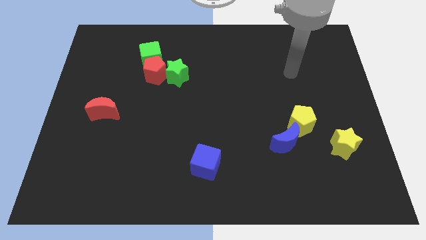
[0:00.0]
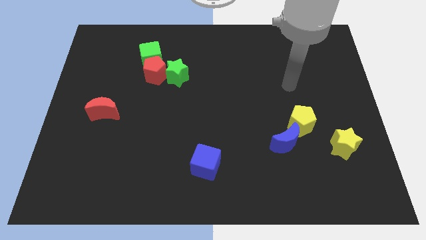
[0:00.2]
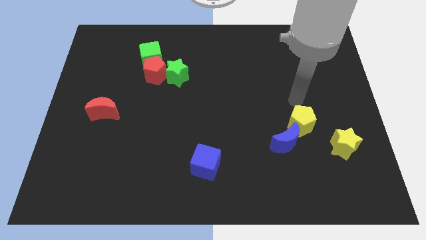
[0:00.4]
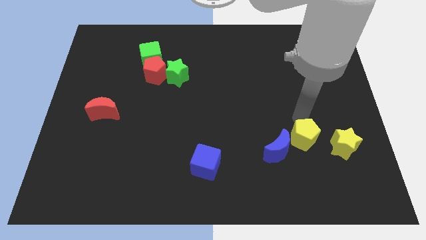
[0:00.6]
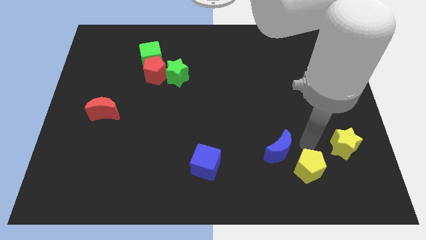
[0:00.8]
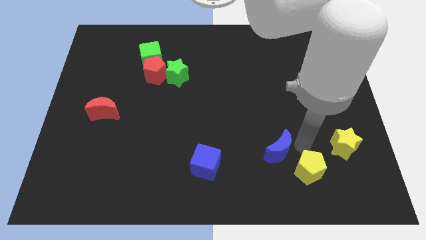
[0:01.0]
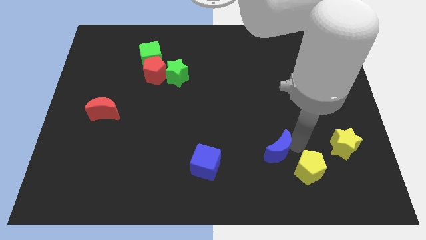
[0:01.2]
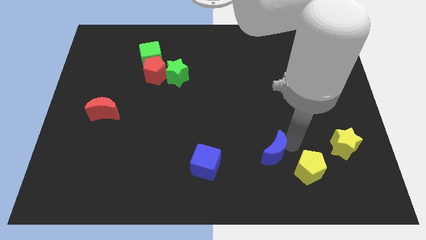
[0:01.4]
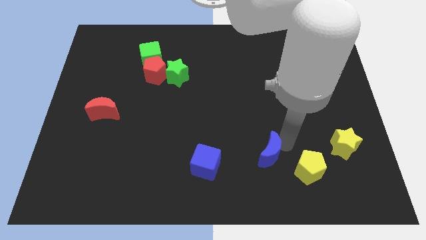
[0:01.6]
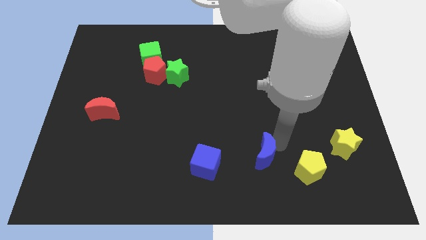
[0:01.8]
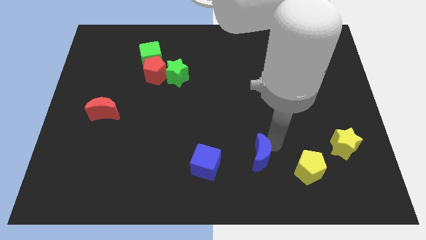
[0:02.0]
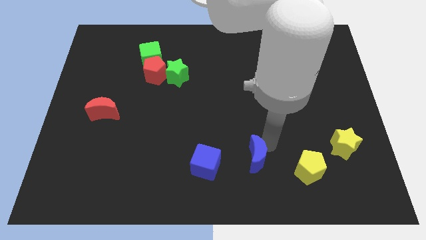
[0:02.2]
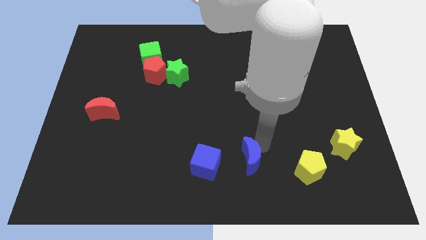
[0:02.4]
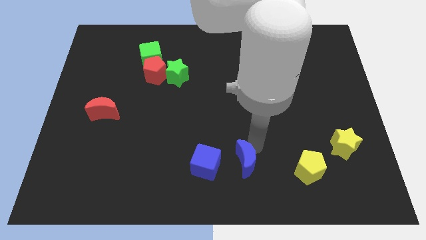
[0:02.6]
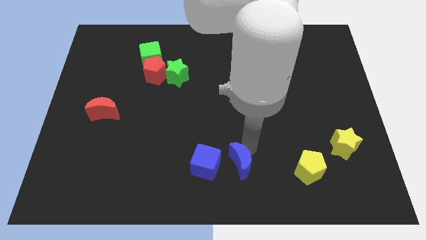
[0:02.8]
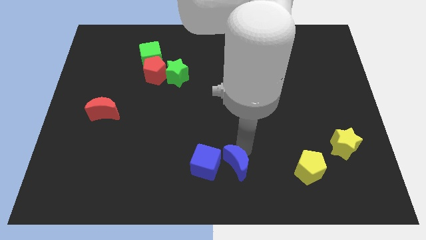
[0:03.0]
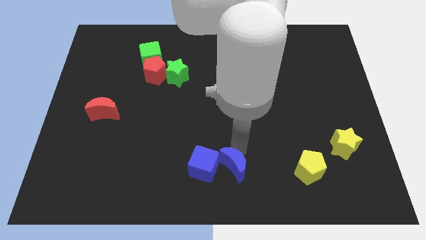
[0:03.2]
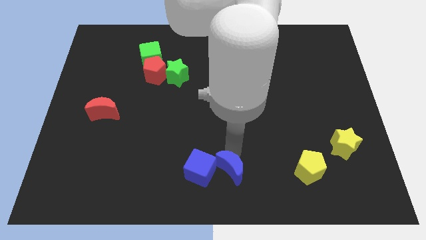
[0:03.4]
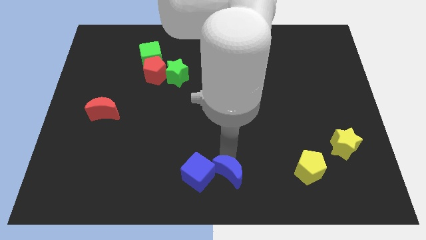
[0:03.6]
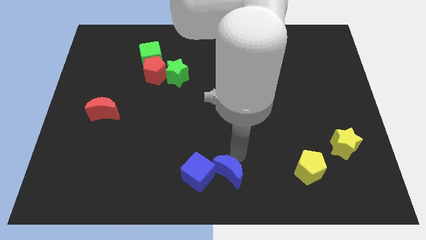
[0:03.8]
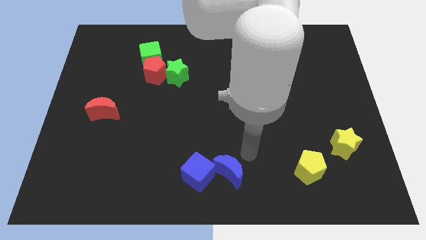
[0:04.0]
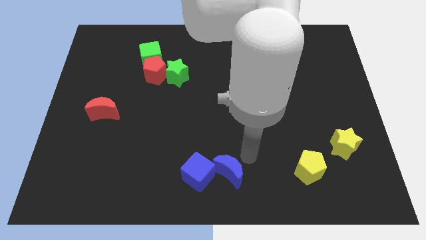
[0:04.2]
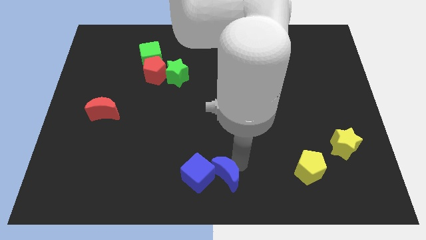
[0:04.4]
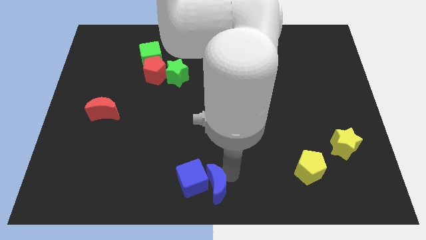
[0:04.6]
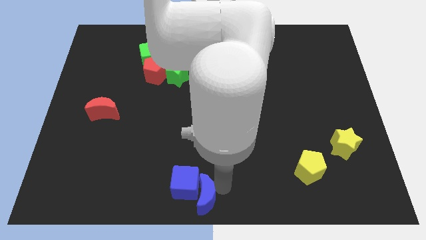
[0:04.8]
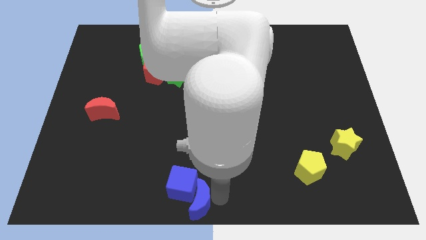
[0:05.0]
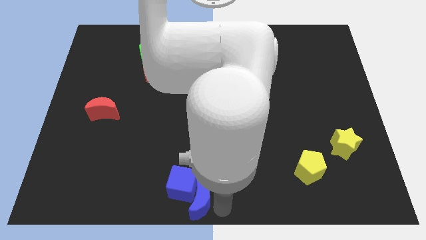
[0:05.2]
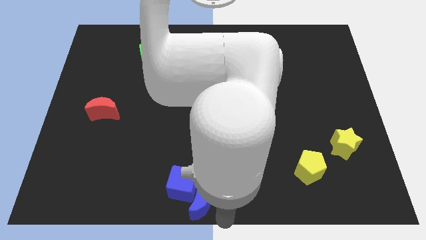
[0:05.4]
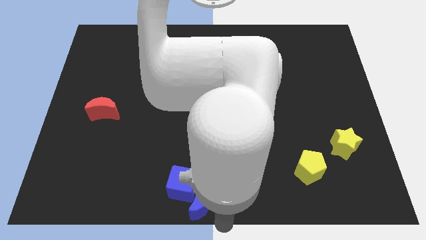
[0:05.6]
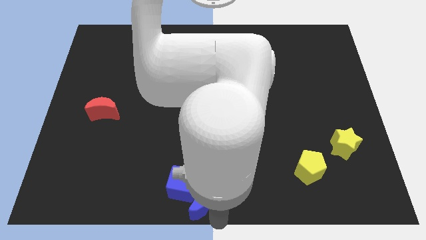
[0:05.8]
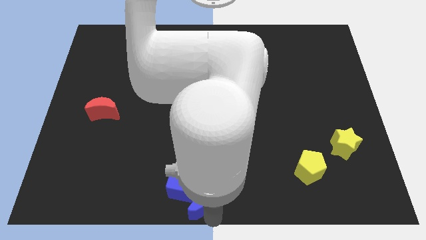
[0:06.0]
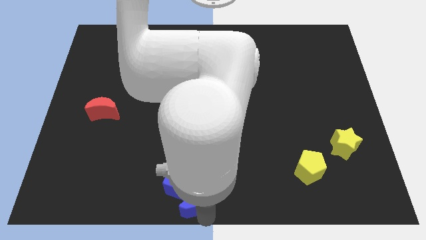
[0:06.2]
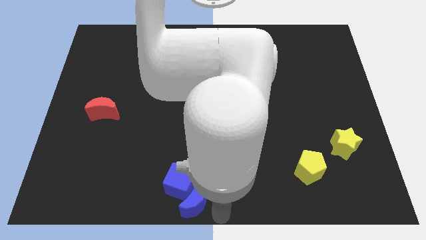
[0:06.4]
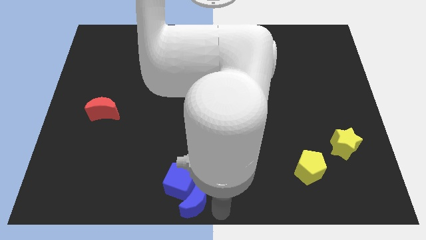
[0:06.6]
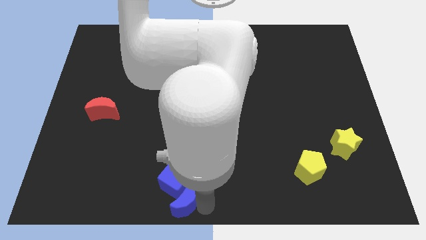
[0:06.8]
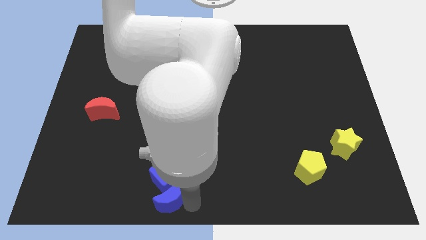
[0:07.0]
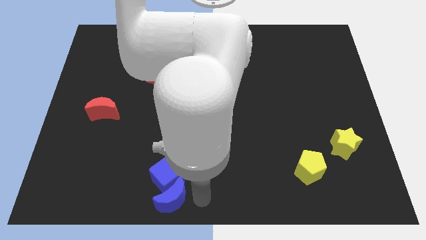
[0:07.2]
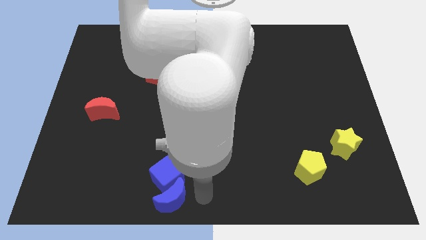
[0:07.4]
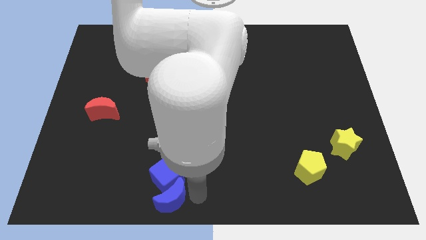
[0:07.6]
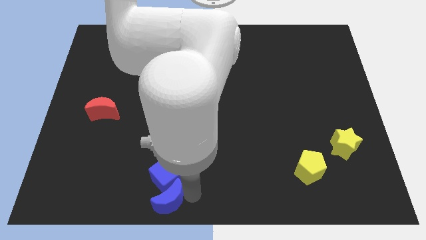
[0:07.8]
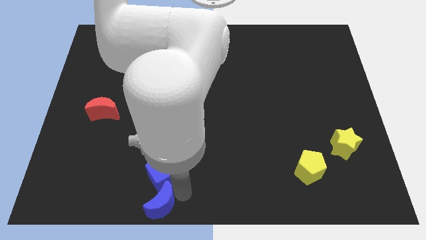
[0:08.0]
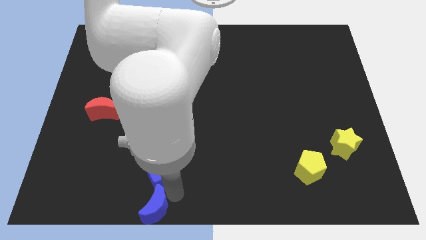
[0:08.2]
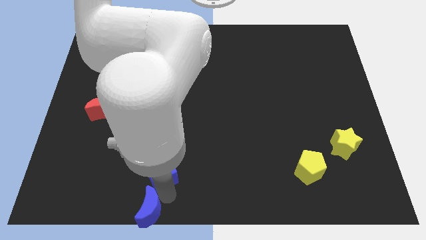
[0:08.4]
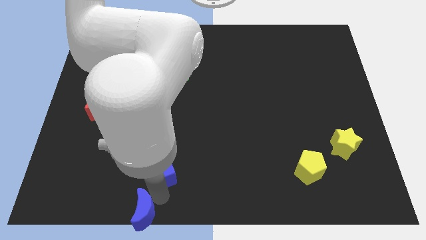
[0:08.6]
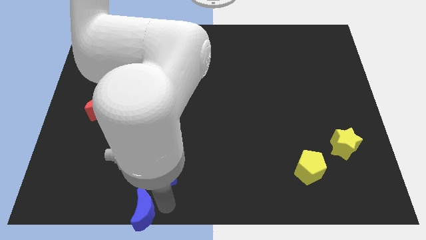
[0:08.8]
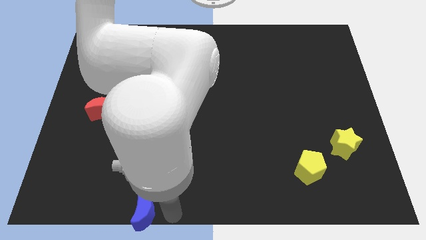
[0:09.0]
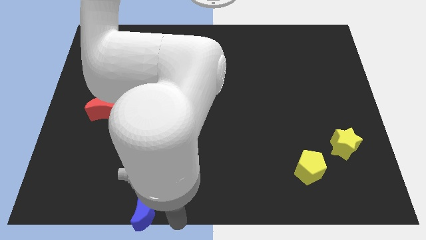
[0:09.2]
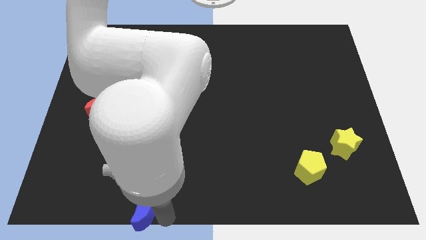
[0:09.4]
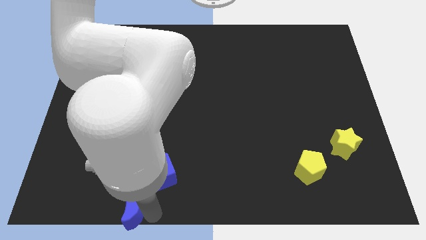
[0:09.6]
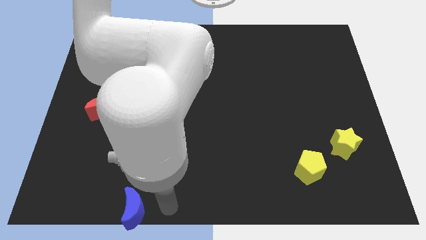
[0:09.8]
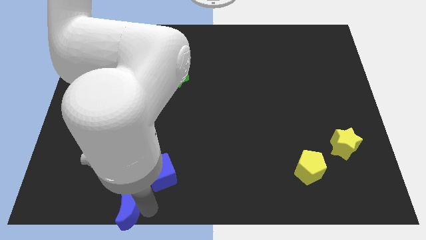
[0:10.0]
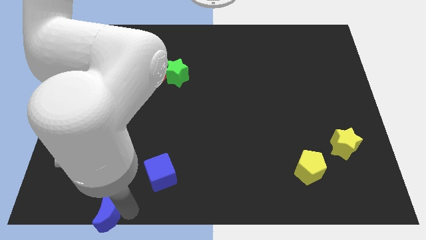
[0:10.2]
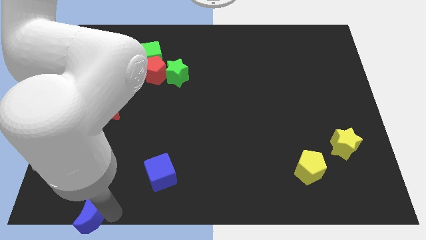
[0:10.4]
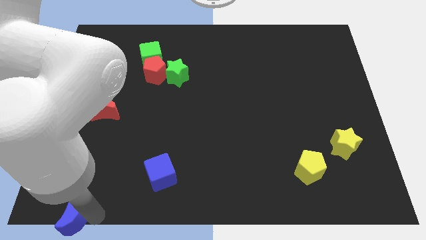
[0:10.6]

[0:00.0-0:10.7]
put the blue moon to the bottom left corner
